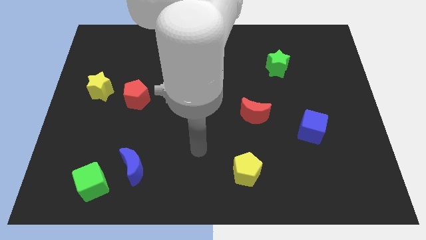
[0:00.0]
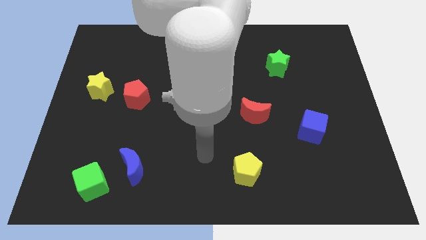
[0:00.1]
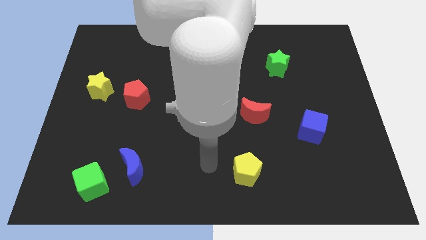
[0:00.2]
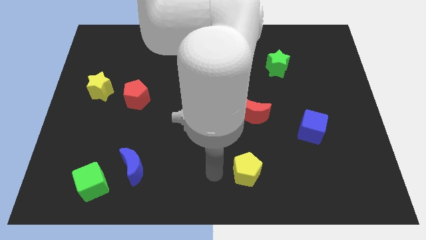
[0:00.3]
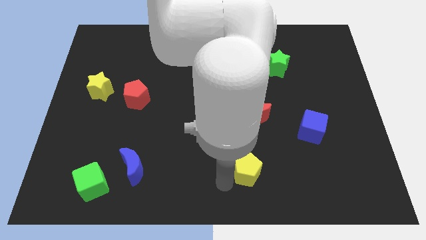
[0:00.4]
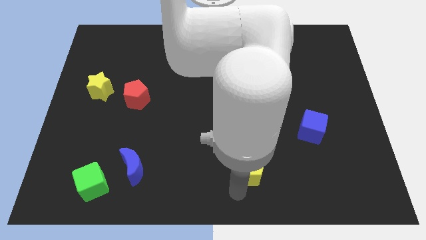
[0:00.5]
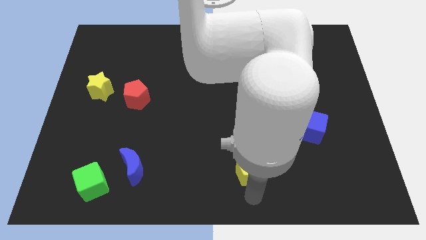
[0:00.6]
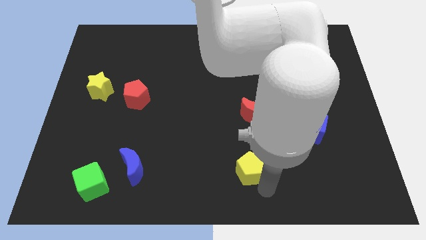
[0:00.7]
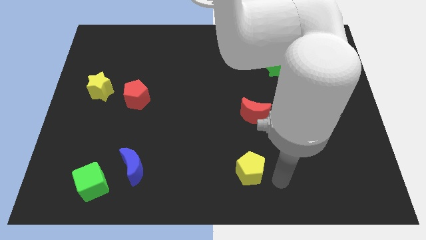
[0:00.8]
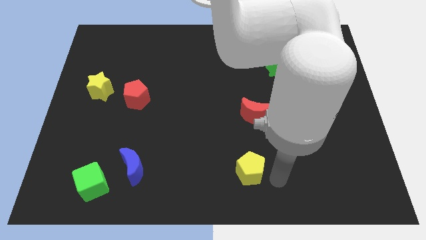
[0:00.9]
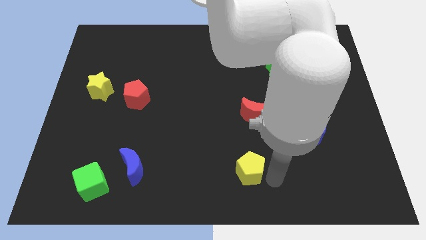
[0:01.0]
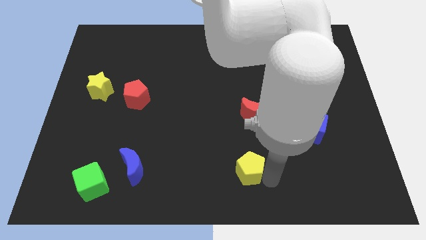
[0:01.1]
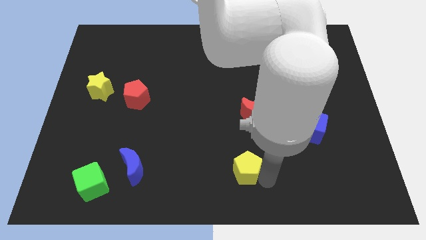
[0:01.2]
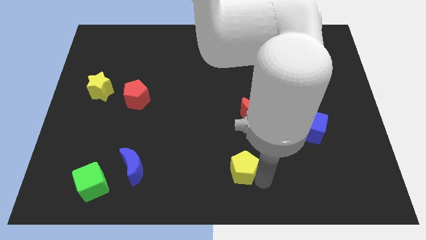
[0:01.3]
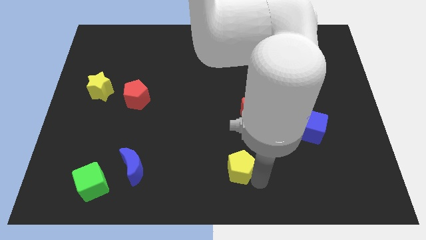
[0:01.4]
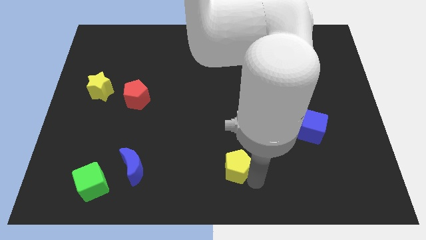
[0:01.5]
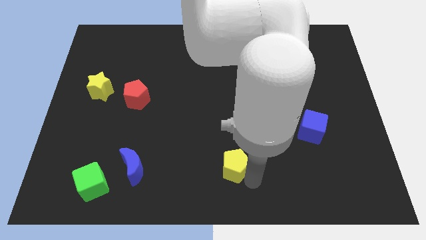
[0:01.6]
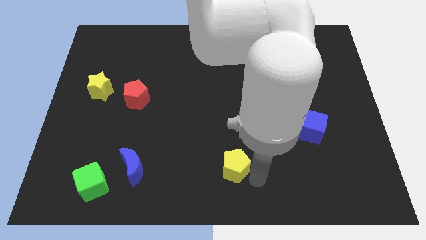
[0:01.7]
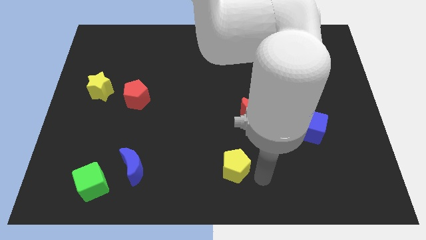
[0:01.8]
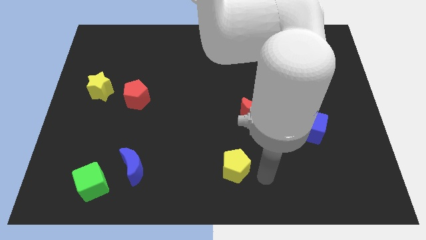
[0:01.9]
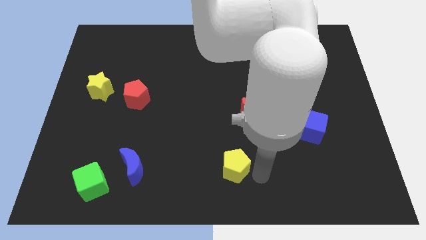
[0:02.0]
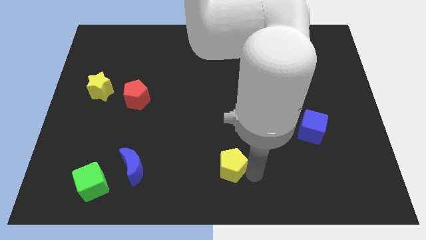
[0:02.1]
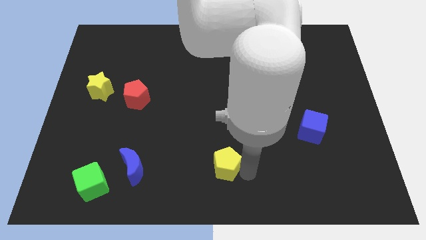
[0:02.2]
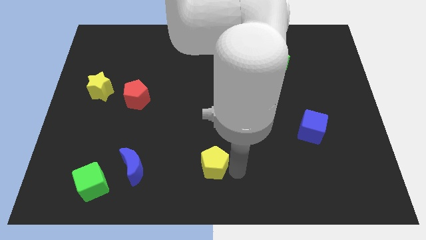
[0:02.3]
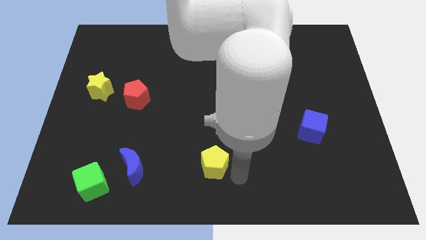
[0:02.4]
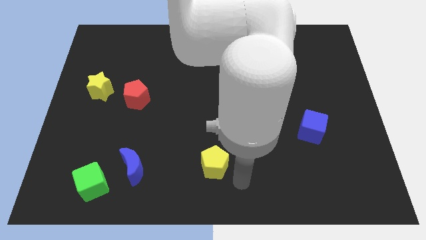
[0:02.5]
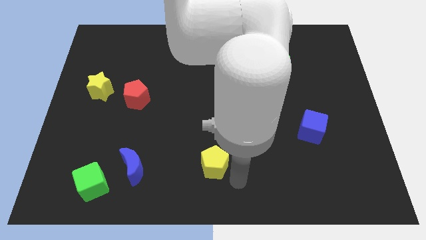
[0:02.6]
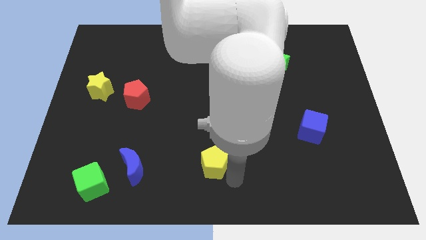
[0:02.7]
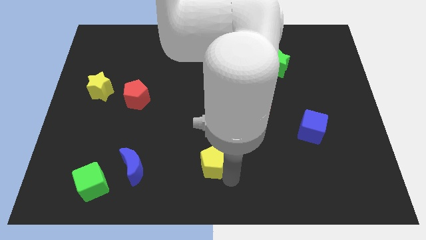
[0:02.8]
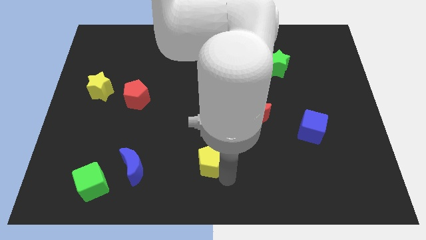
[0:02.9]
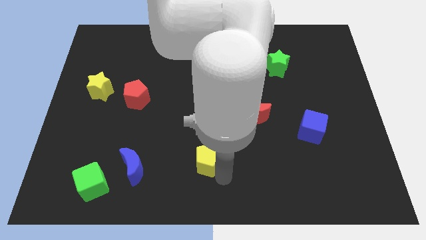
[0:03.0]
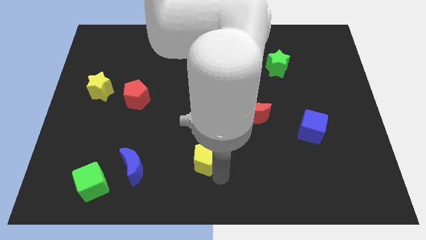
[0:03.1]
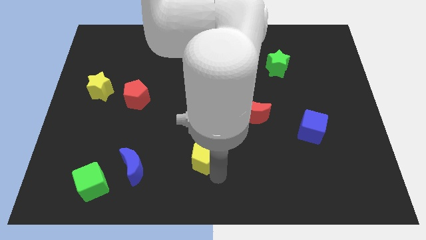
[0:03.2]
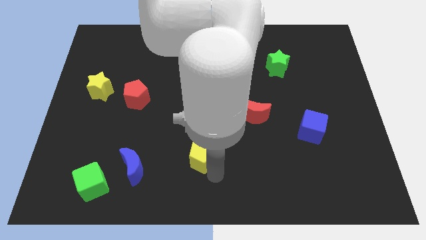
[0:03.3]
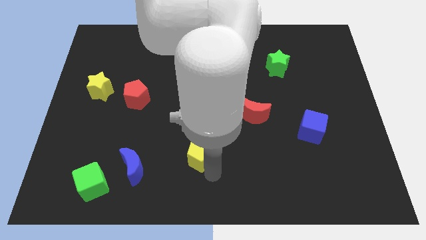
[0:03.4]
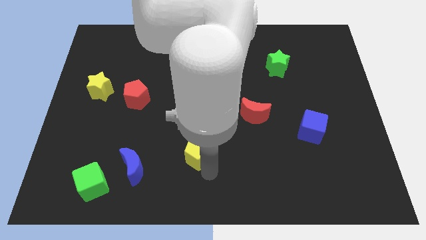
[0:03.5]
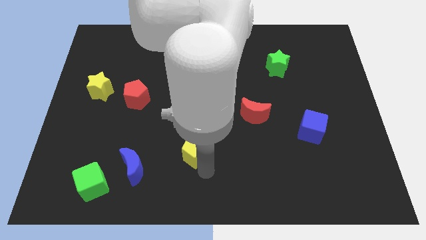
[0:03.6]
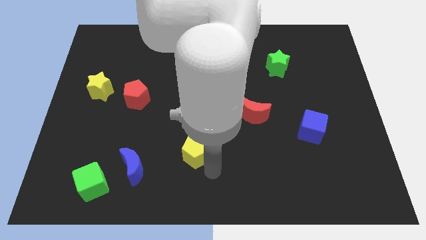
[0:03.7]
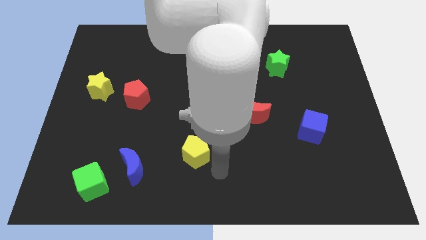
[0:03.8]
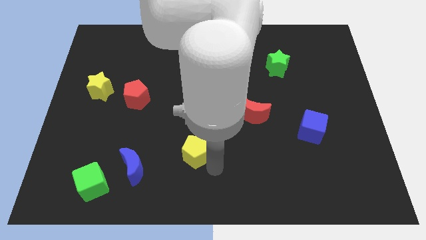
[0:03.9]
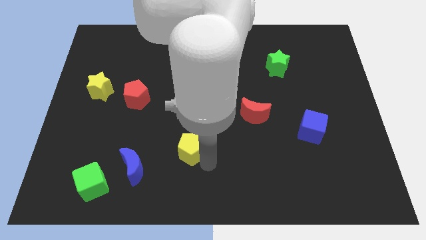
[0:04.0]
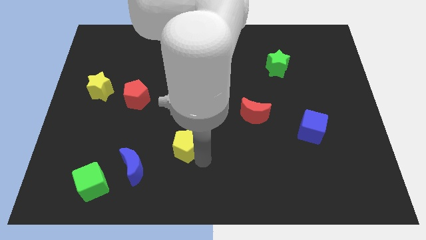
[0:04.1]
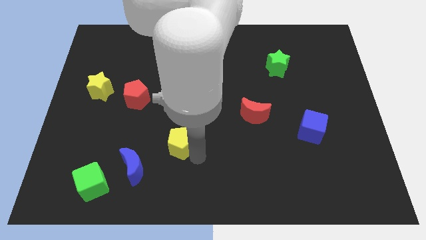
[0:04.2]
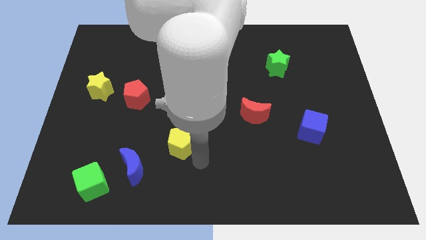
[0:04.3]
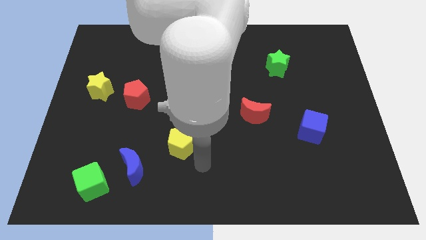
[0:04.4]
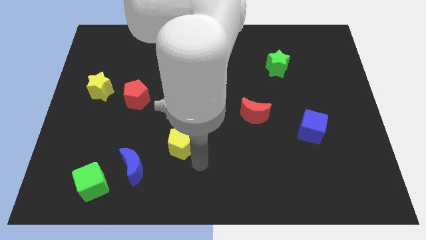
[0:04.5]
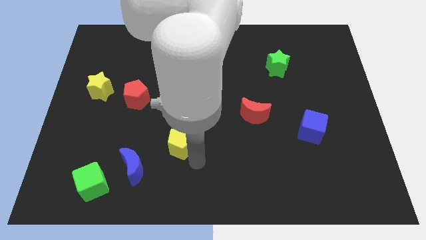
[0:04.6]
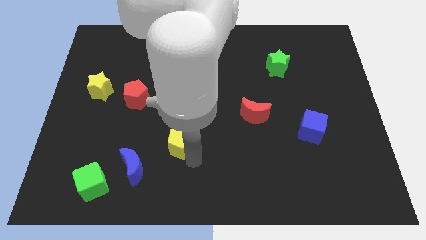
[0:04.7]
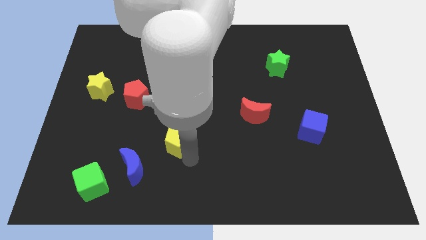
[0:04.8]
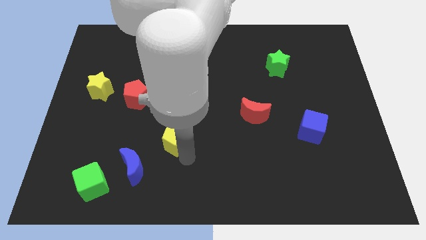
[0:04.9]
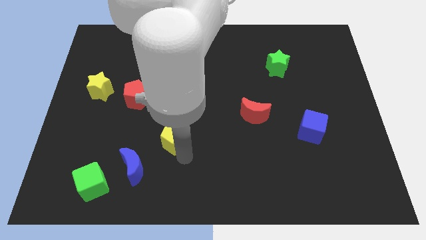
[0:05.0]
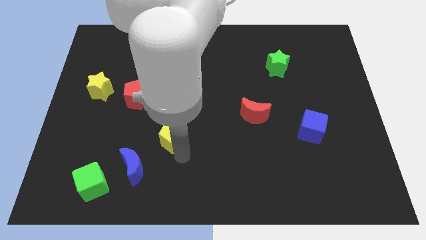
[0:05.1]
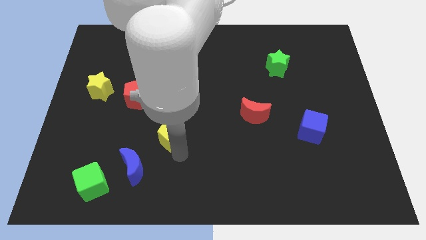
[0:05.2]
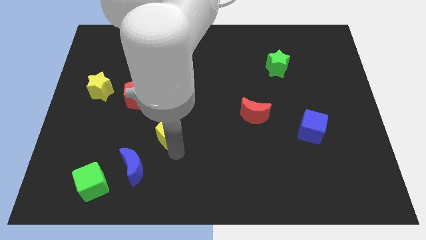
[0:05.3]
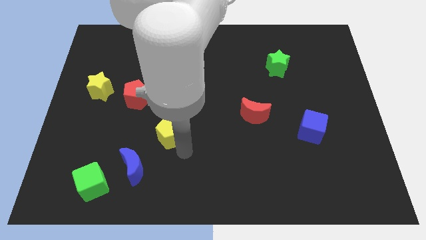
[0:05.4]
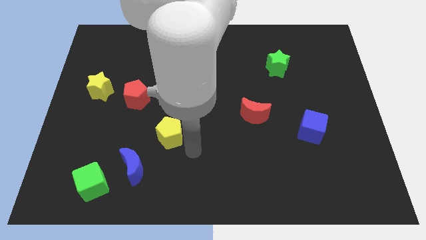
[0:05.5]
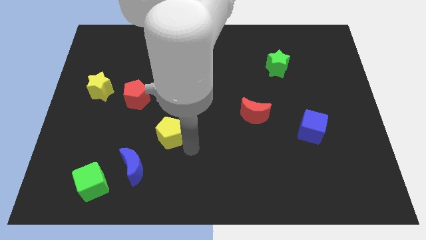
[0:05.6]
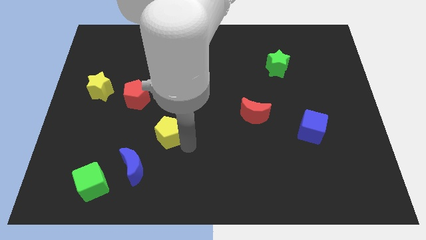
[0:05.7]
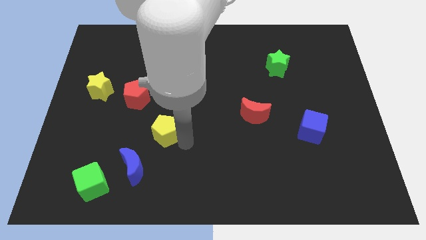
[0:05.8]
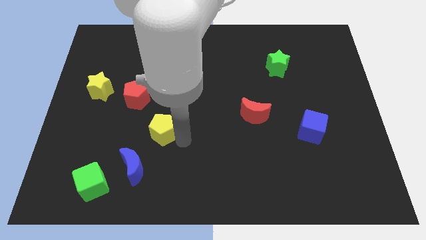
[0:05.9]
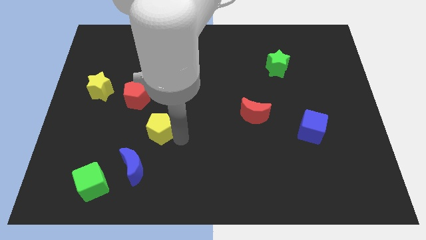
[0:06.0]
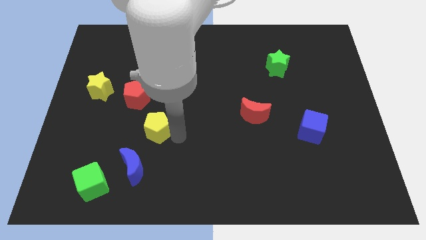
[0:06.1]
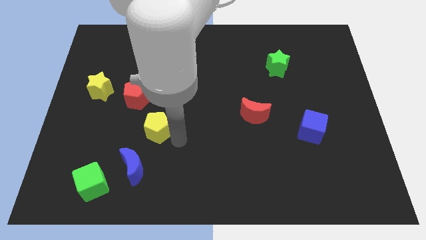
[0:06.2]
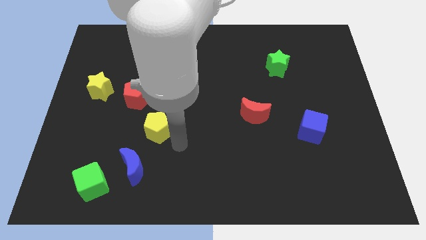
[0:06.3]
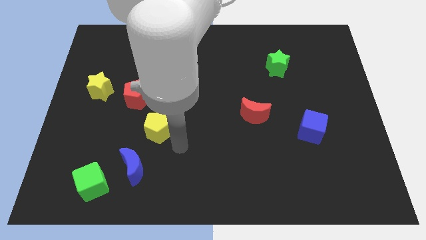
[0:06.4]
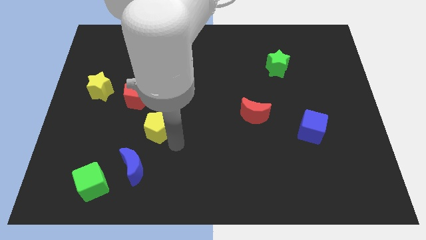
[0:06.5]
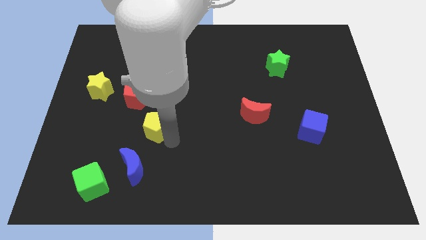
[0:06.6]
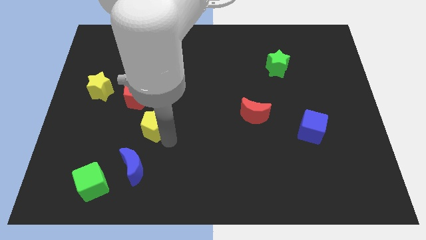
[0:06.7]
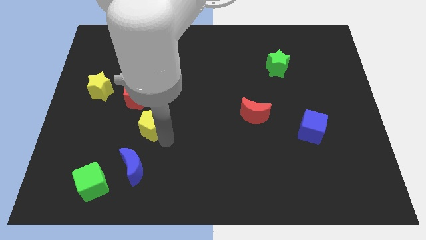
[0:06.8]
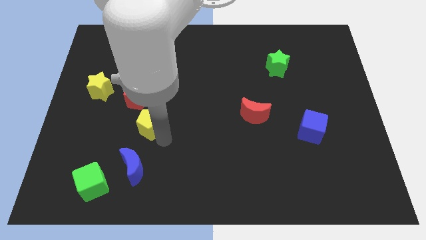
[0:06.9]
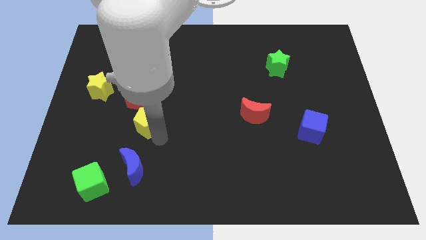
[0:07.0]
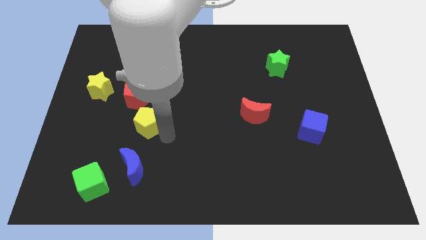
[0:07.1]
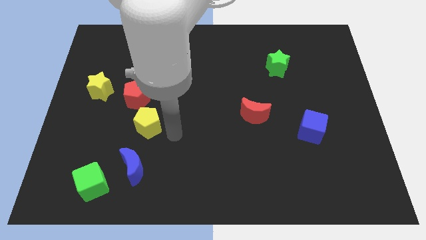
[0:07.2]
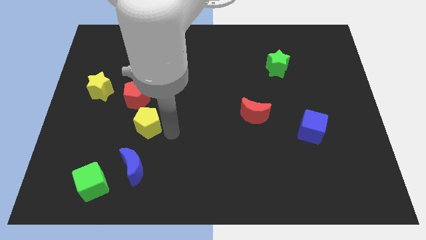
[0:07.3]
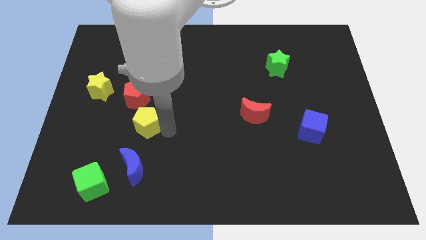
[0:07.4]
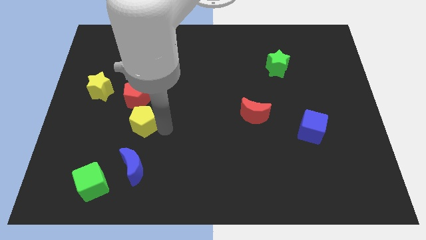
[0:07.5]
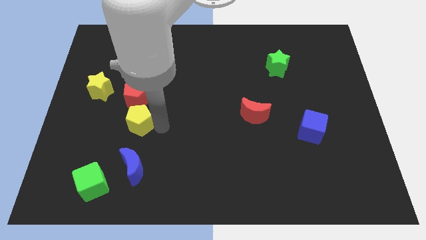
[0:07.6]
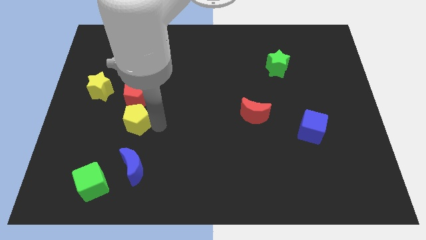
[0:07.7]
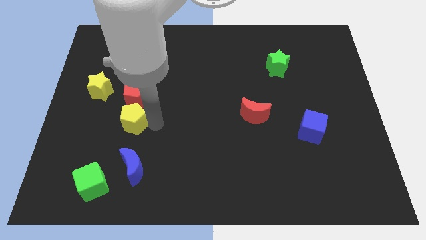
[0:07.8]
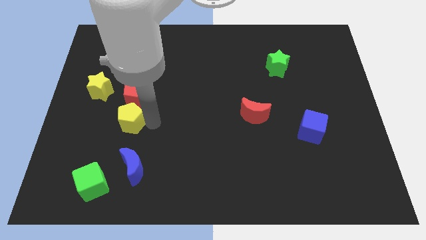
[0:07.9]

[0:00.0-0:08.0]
move the yellow pentagon to the bottom left side of the red pentagon
